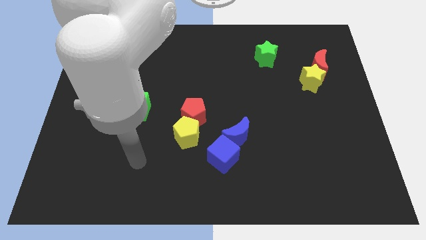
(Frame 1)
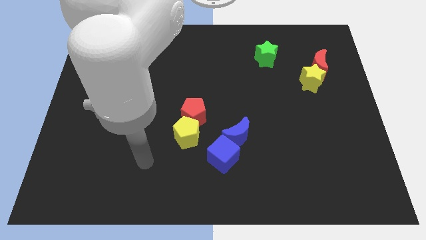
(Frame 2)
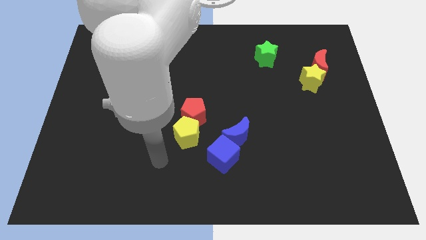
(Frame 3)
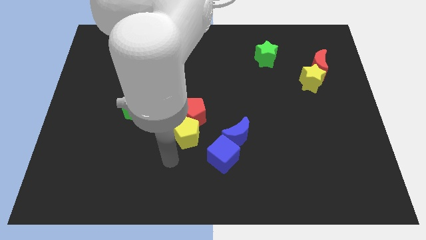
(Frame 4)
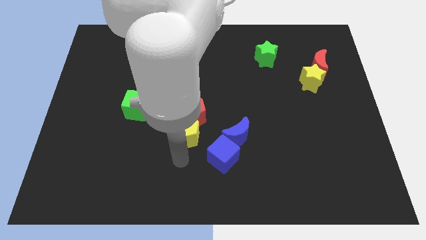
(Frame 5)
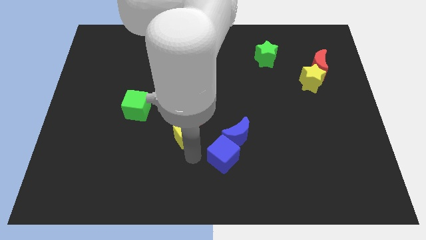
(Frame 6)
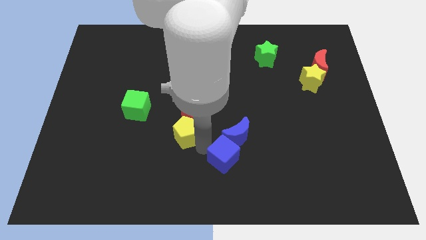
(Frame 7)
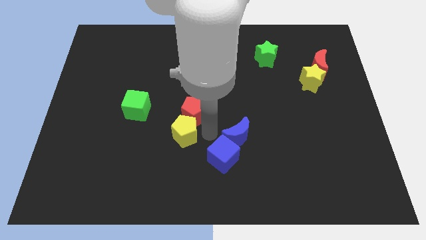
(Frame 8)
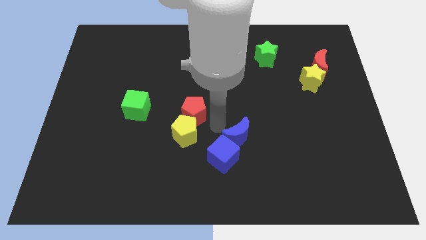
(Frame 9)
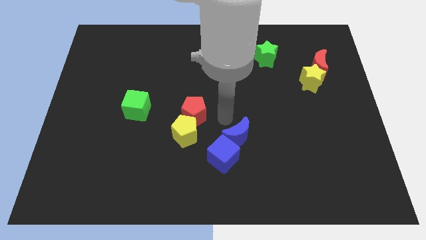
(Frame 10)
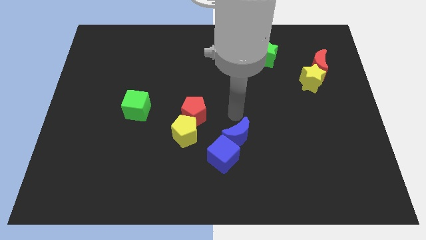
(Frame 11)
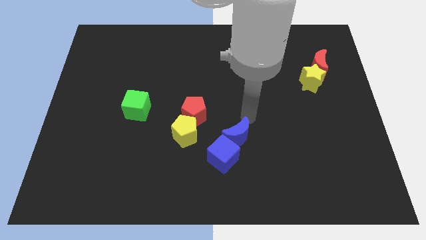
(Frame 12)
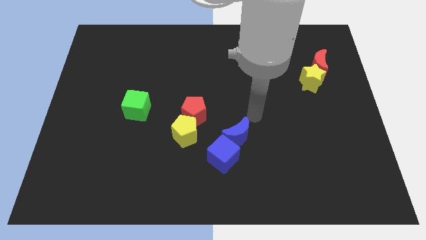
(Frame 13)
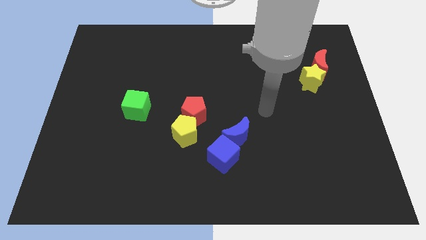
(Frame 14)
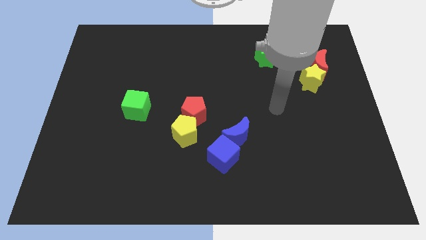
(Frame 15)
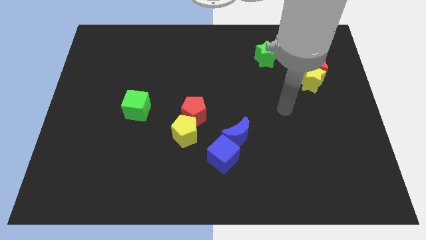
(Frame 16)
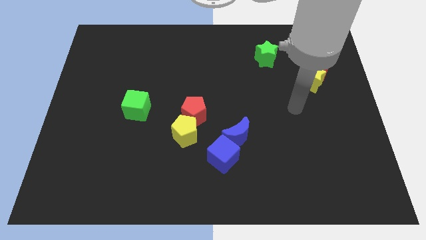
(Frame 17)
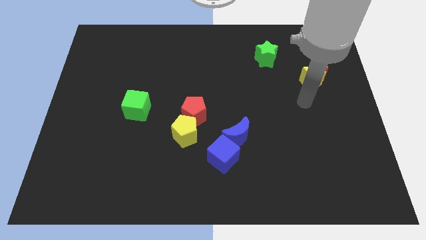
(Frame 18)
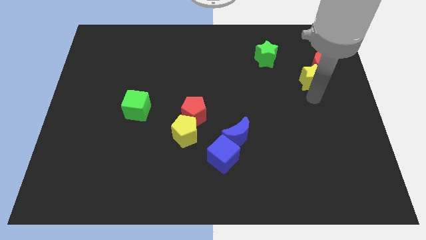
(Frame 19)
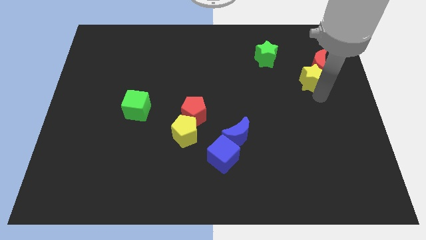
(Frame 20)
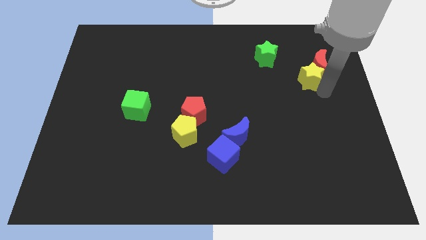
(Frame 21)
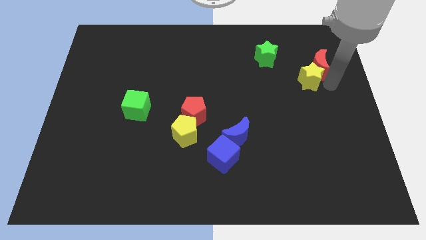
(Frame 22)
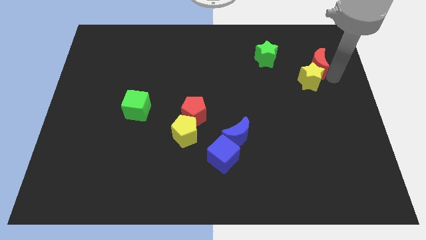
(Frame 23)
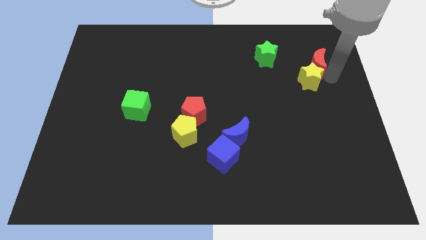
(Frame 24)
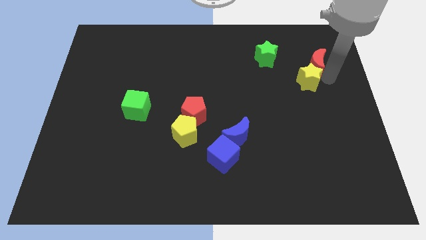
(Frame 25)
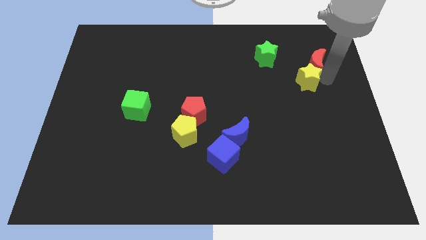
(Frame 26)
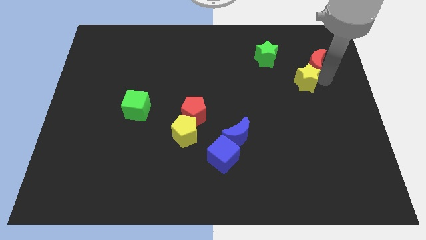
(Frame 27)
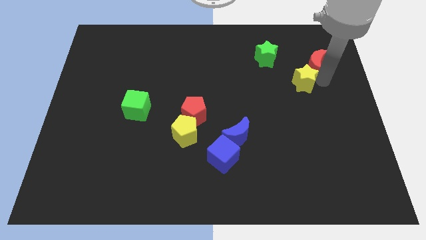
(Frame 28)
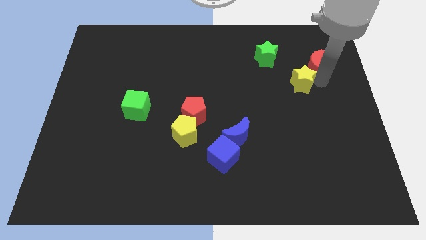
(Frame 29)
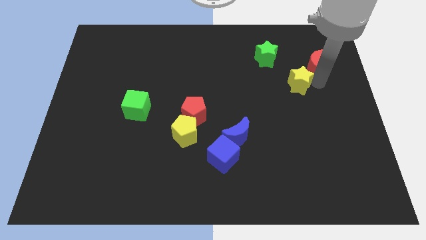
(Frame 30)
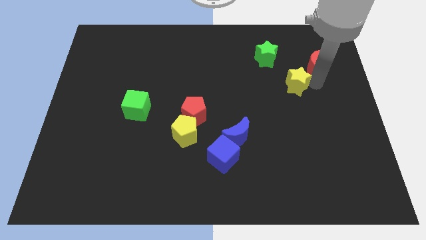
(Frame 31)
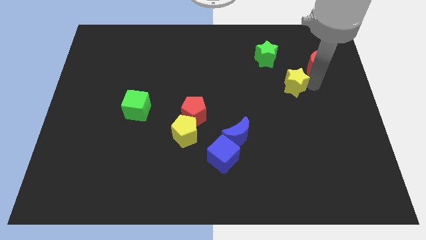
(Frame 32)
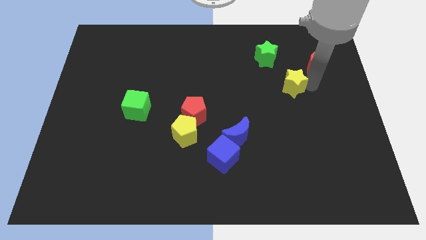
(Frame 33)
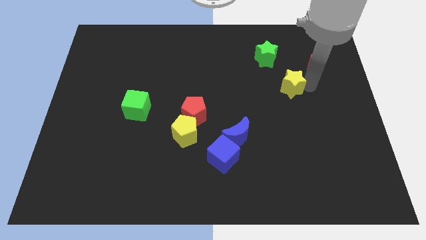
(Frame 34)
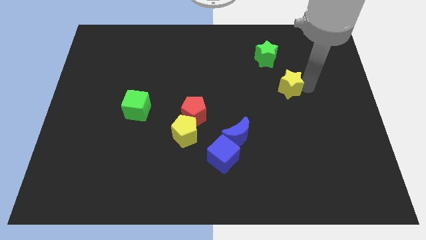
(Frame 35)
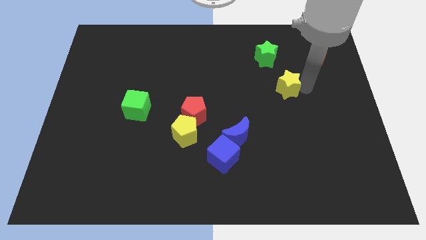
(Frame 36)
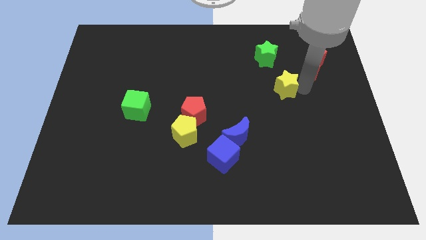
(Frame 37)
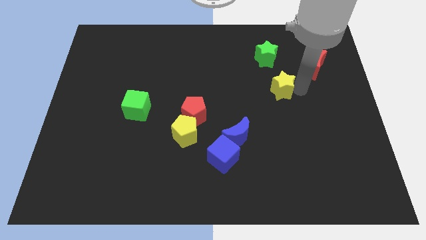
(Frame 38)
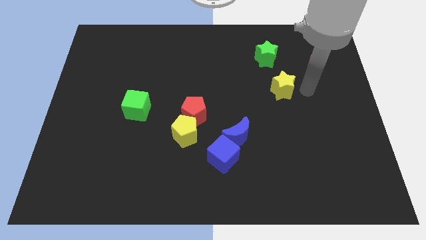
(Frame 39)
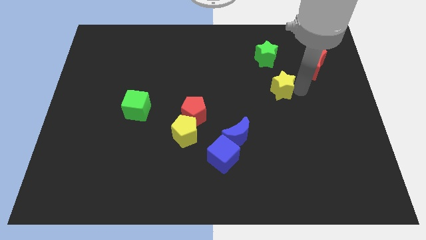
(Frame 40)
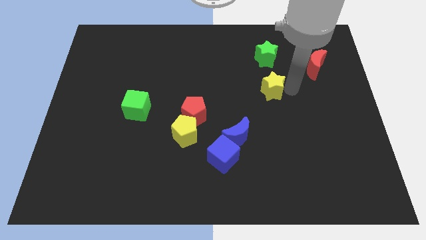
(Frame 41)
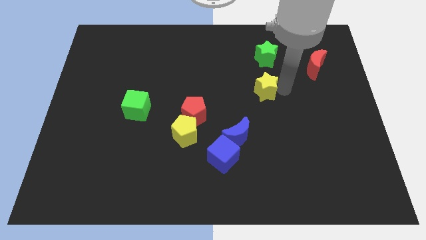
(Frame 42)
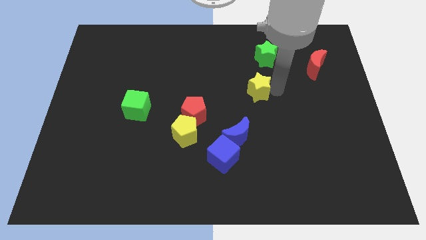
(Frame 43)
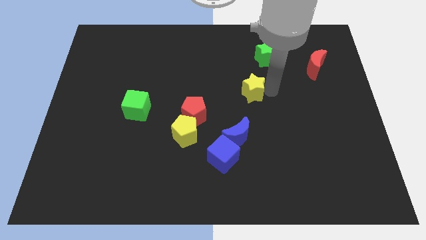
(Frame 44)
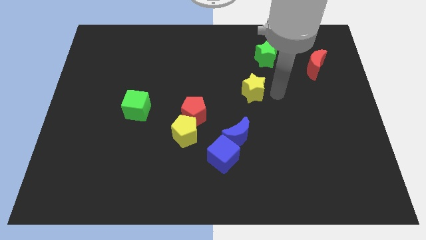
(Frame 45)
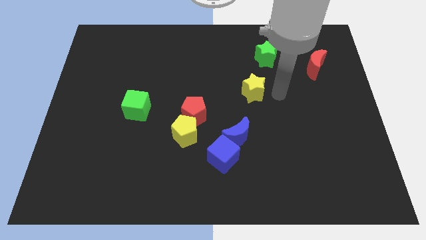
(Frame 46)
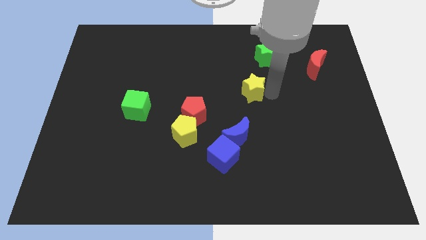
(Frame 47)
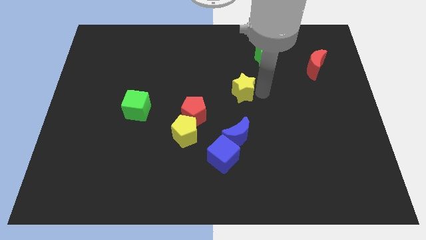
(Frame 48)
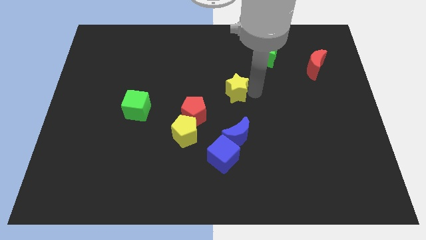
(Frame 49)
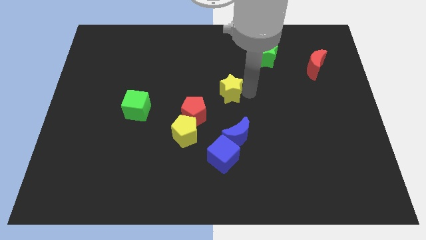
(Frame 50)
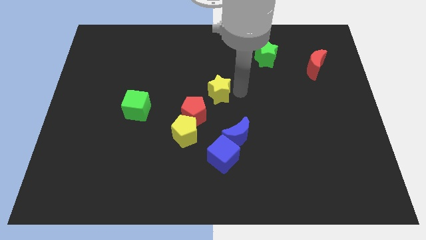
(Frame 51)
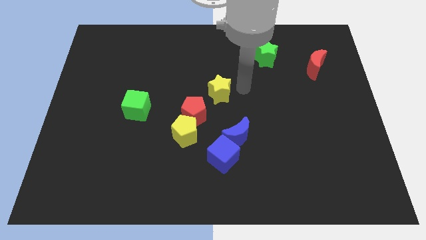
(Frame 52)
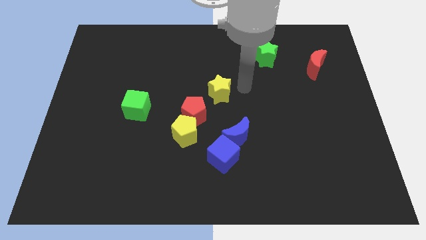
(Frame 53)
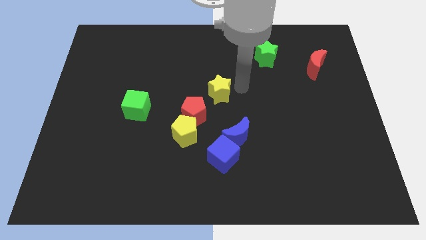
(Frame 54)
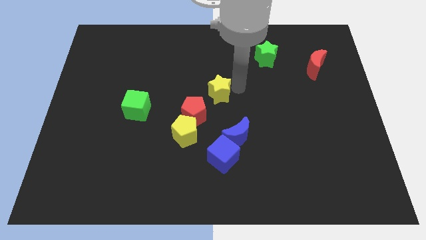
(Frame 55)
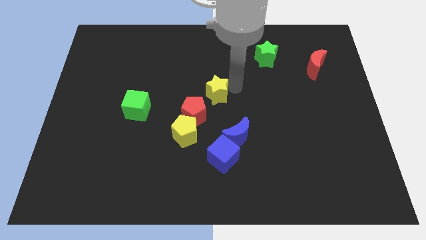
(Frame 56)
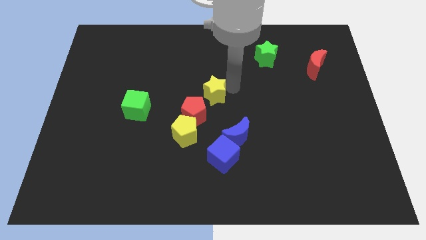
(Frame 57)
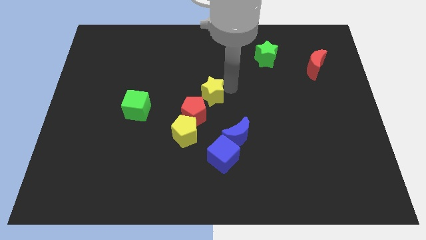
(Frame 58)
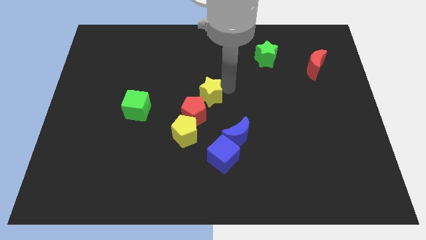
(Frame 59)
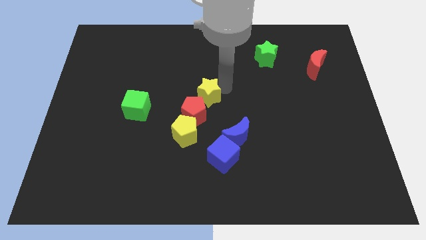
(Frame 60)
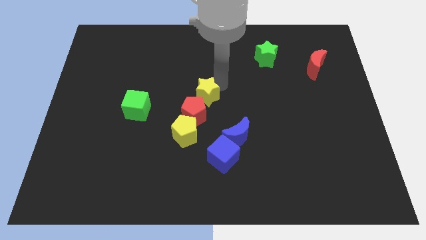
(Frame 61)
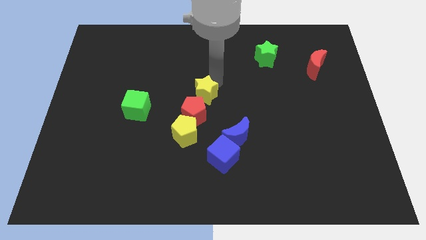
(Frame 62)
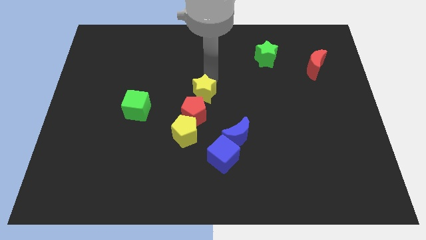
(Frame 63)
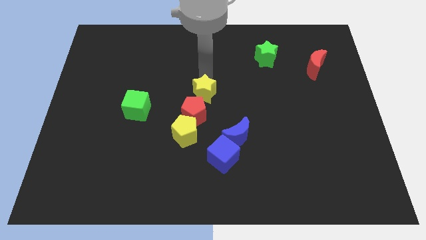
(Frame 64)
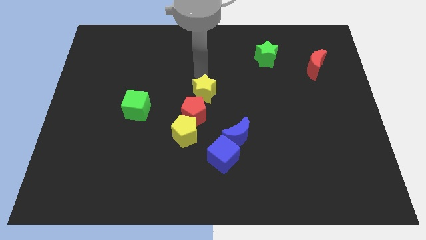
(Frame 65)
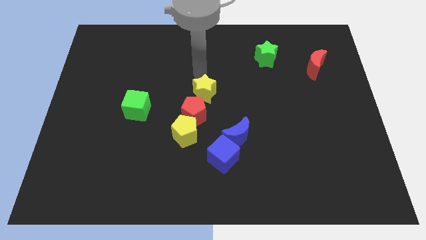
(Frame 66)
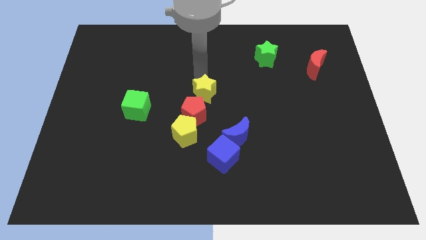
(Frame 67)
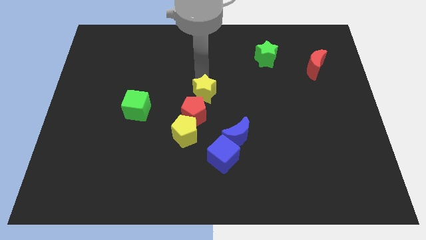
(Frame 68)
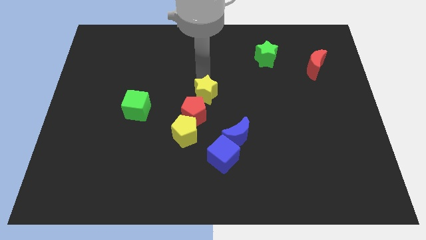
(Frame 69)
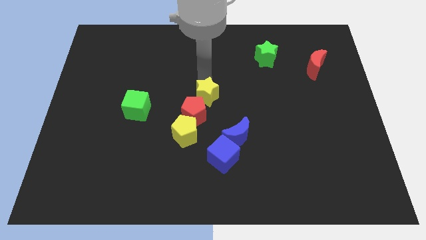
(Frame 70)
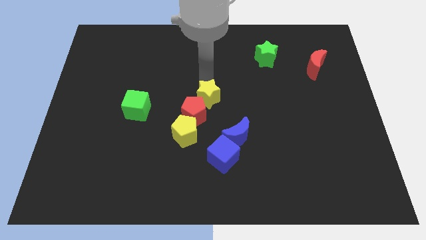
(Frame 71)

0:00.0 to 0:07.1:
put the yellow star diagonally up and to the right of the yellow pentagon

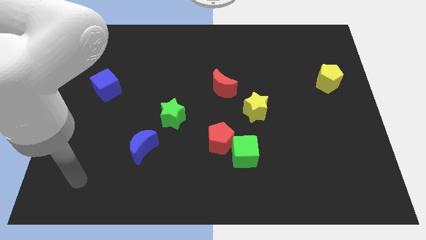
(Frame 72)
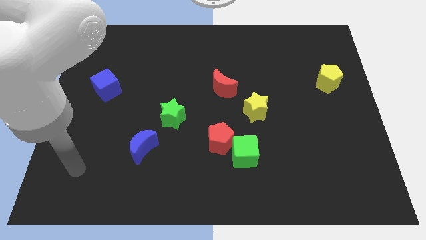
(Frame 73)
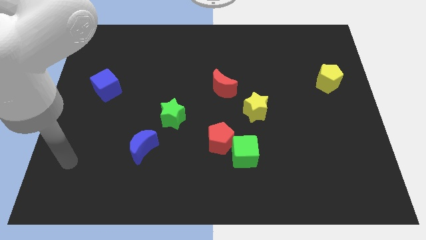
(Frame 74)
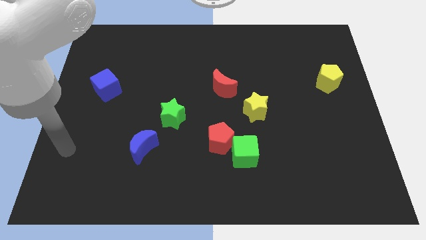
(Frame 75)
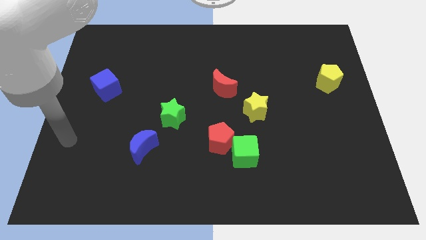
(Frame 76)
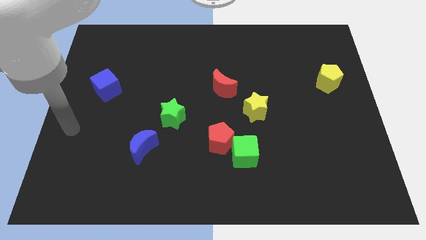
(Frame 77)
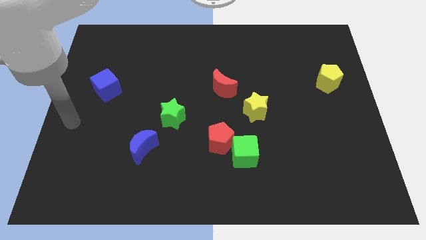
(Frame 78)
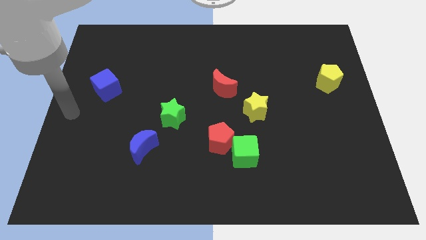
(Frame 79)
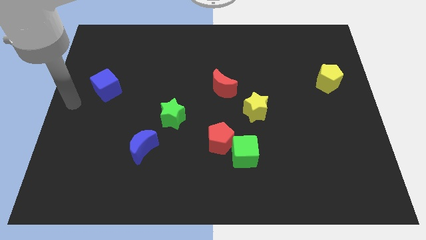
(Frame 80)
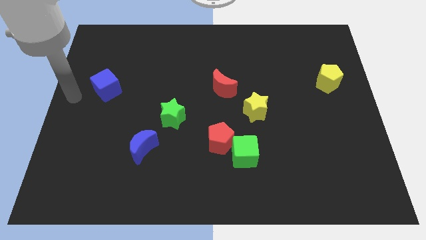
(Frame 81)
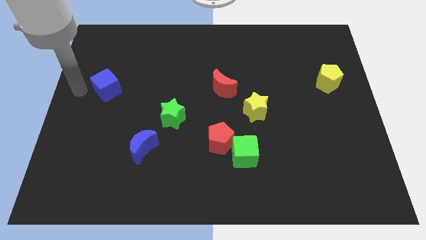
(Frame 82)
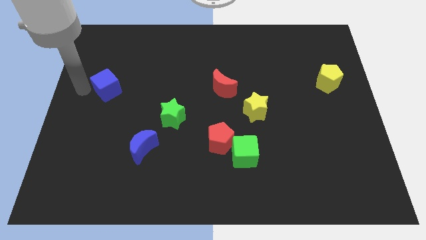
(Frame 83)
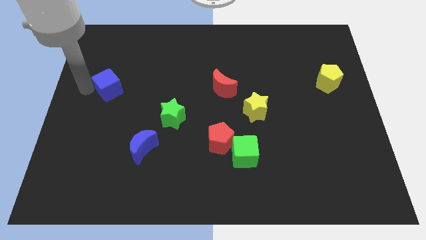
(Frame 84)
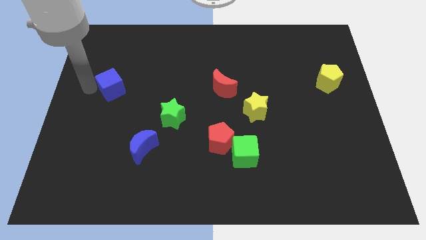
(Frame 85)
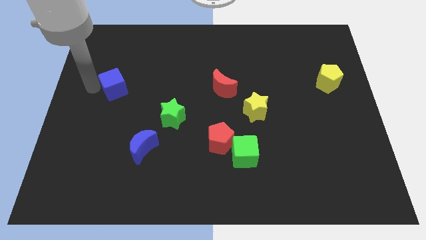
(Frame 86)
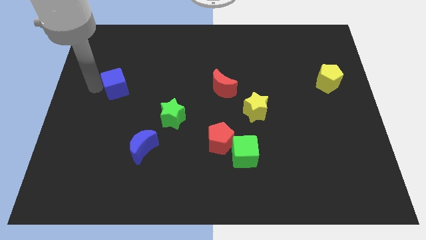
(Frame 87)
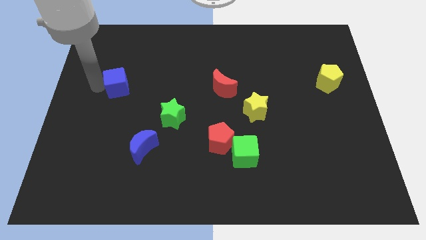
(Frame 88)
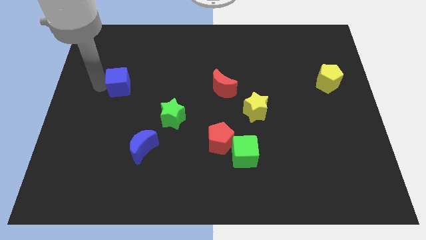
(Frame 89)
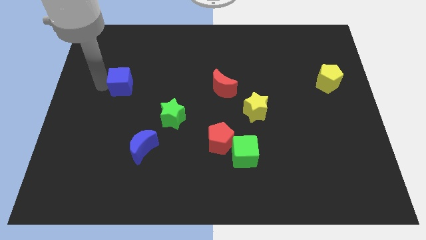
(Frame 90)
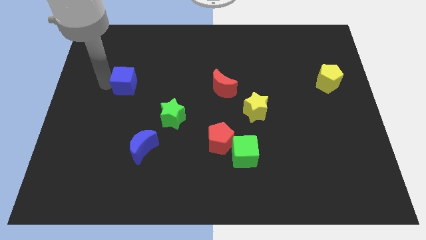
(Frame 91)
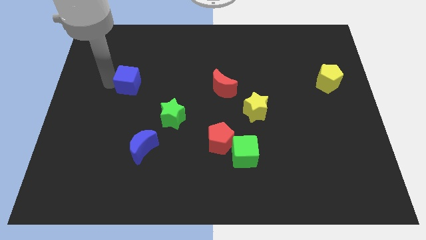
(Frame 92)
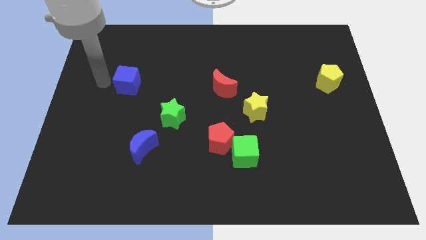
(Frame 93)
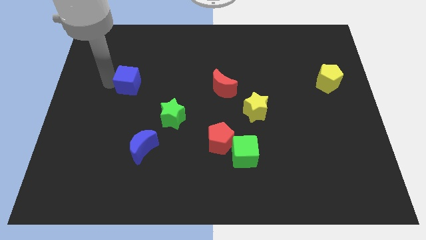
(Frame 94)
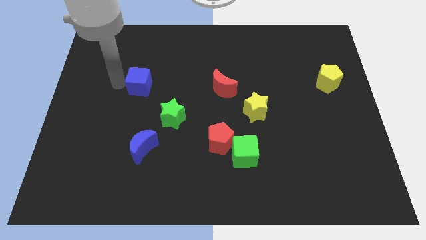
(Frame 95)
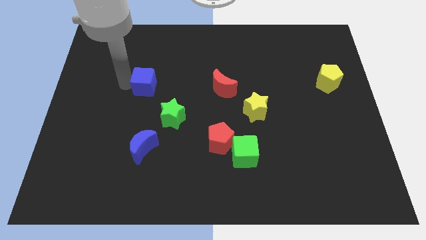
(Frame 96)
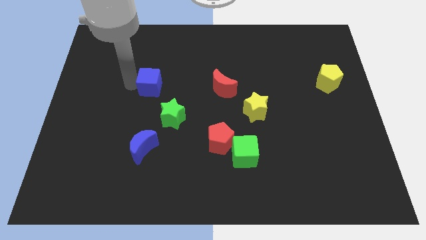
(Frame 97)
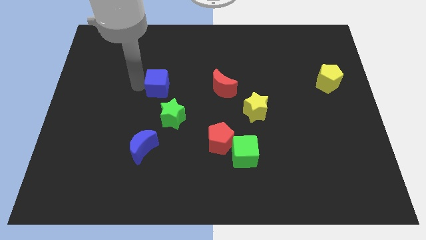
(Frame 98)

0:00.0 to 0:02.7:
slide the blue cube above the green star
